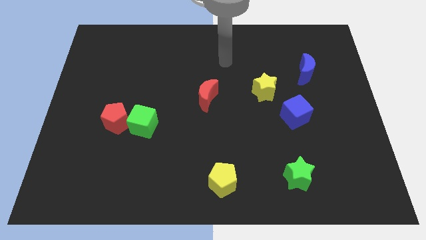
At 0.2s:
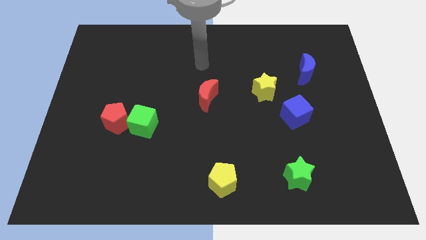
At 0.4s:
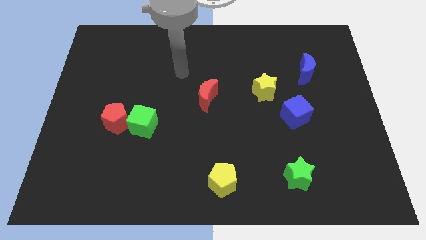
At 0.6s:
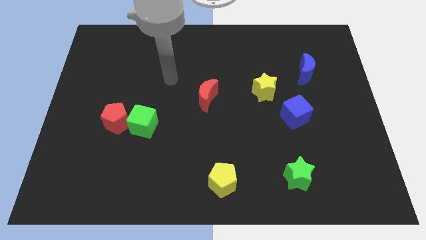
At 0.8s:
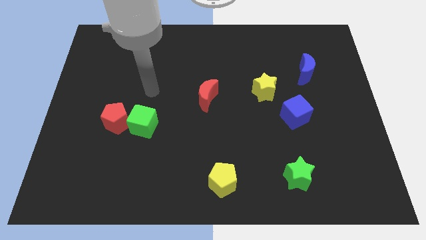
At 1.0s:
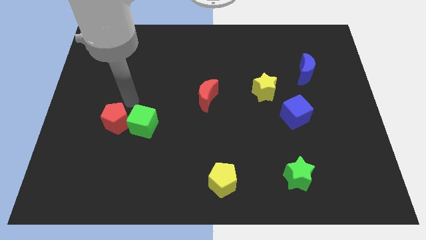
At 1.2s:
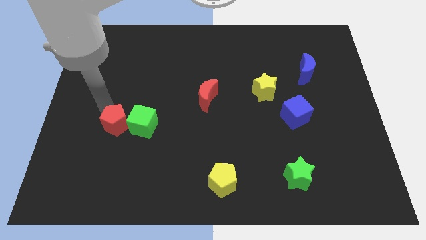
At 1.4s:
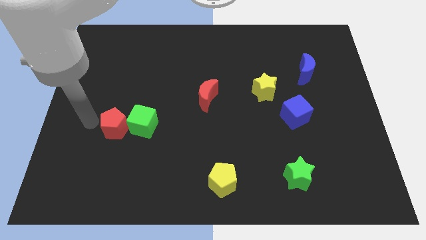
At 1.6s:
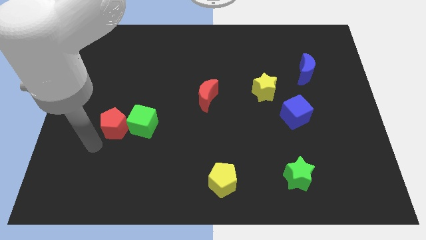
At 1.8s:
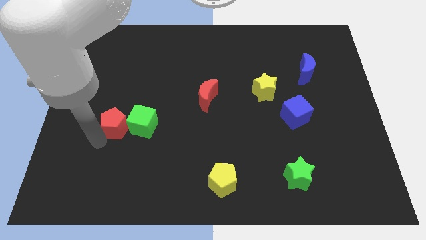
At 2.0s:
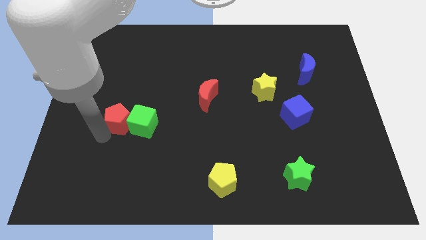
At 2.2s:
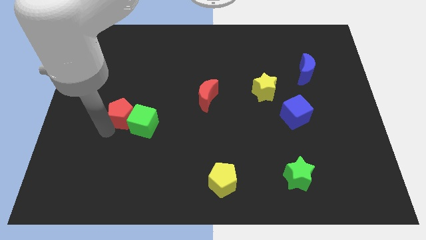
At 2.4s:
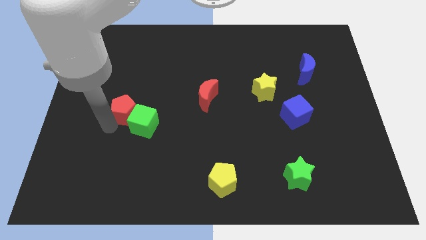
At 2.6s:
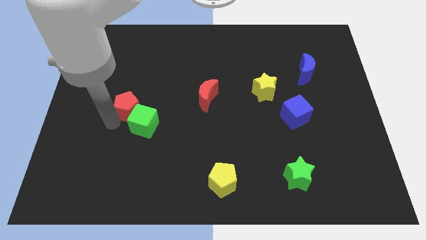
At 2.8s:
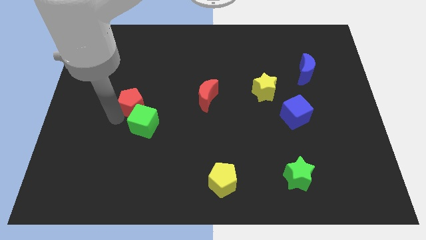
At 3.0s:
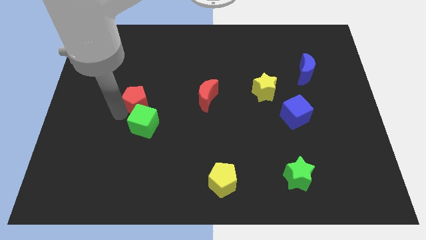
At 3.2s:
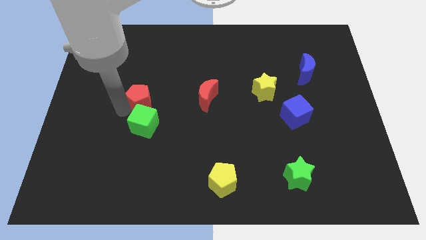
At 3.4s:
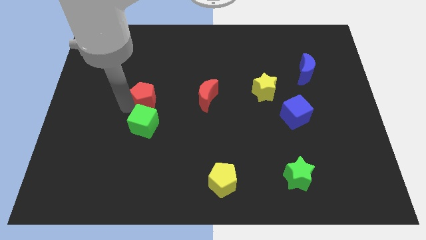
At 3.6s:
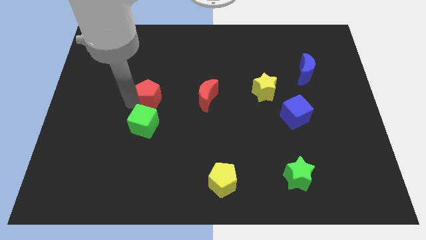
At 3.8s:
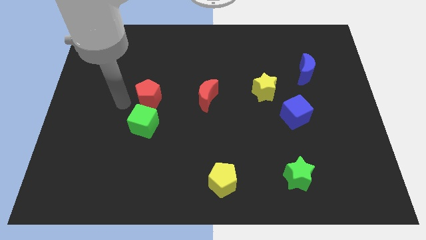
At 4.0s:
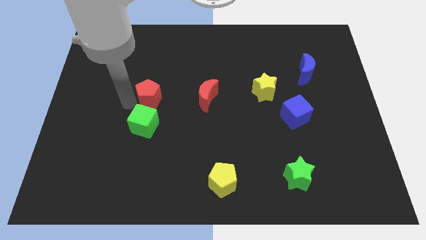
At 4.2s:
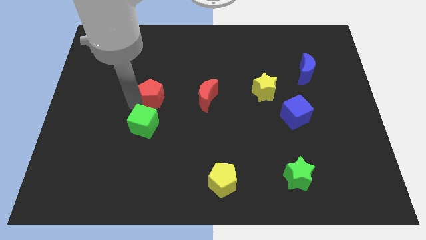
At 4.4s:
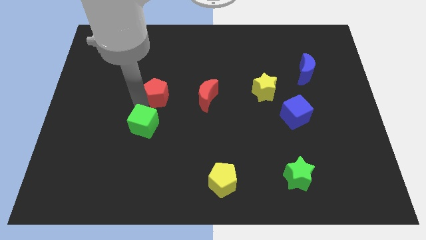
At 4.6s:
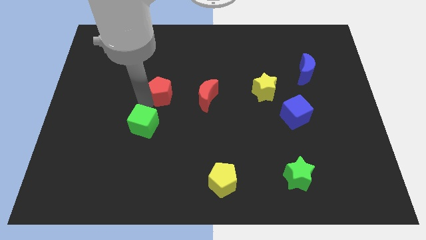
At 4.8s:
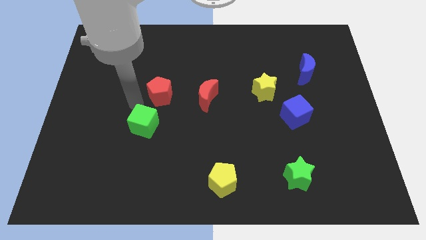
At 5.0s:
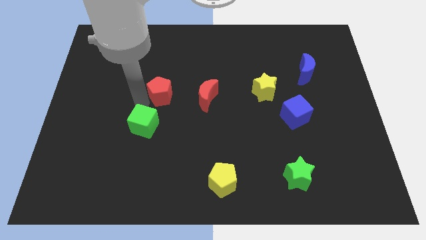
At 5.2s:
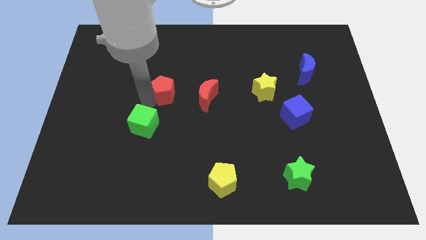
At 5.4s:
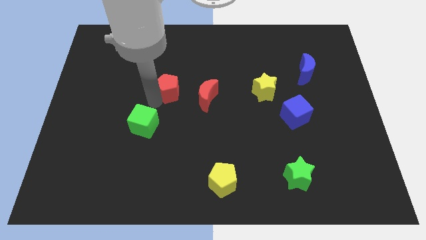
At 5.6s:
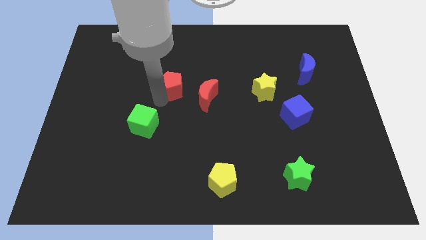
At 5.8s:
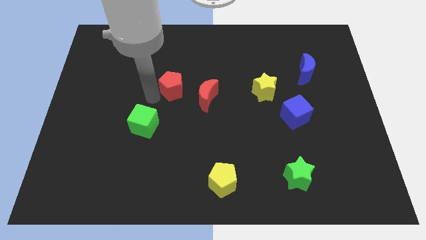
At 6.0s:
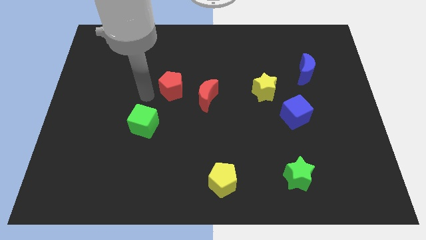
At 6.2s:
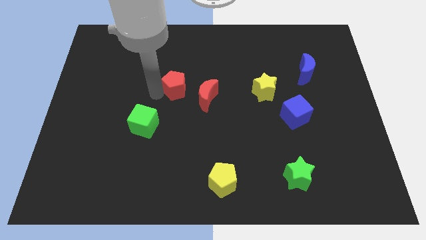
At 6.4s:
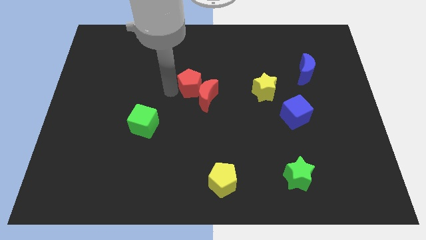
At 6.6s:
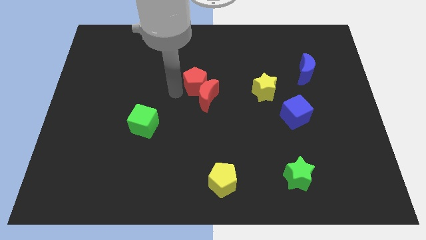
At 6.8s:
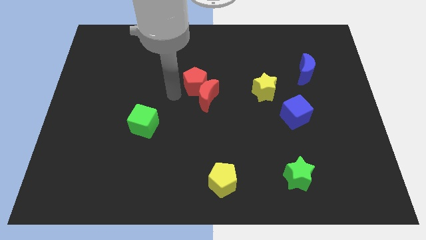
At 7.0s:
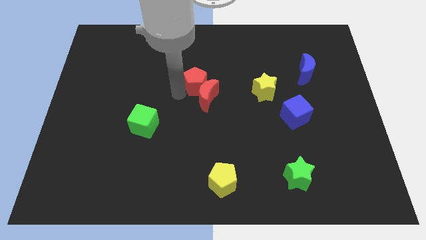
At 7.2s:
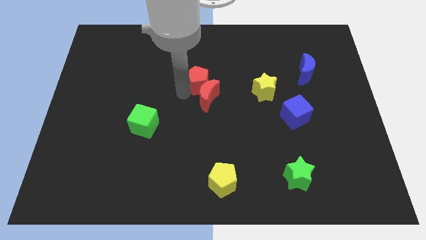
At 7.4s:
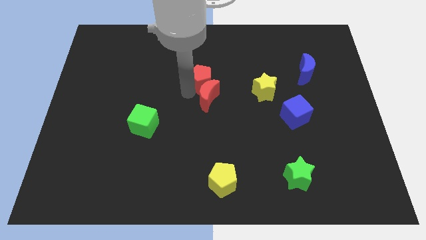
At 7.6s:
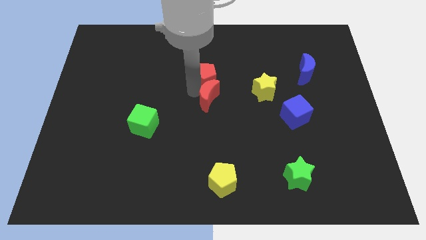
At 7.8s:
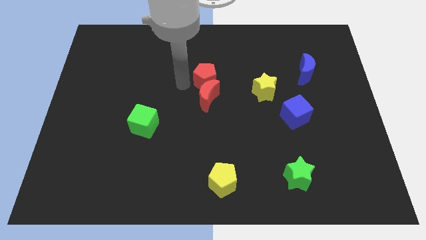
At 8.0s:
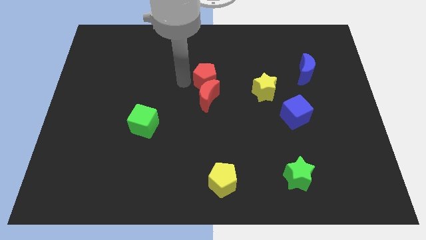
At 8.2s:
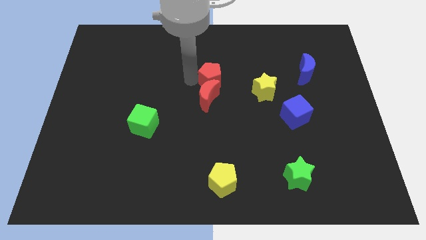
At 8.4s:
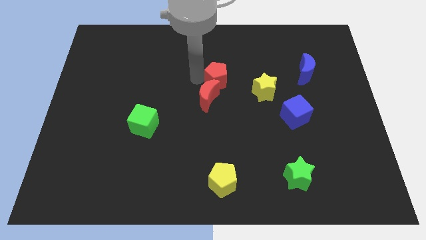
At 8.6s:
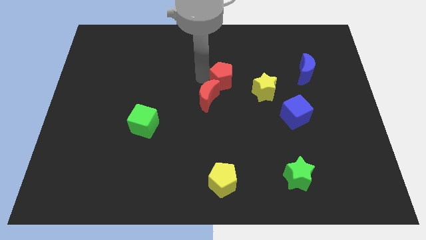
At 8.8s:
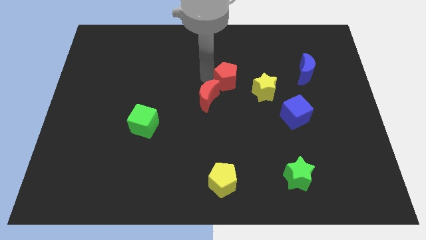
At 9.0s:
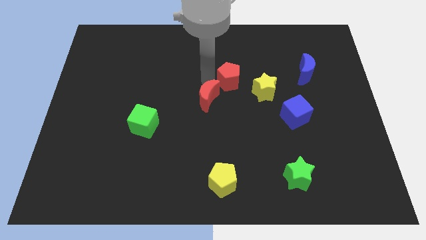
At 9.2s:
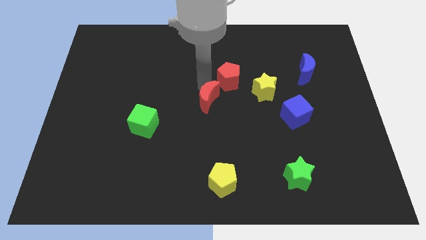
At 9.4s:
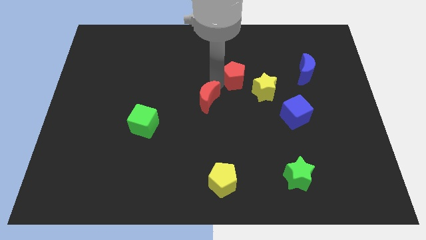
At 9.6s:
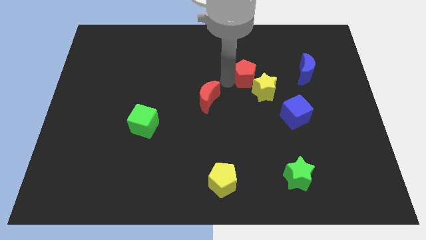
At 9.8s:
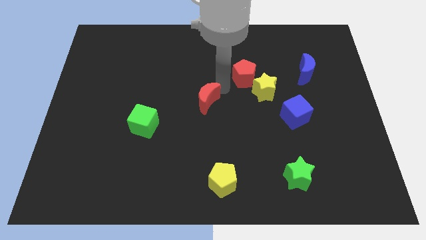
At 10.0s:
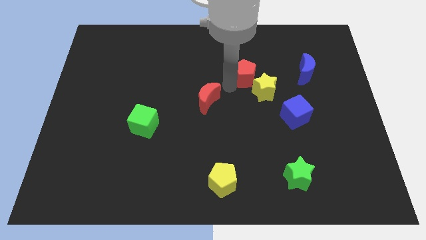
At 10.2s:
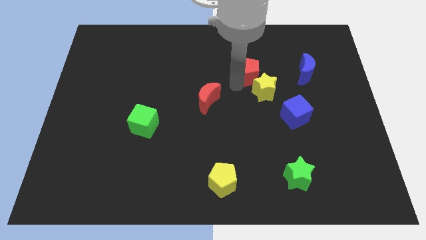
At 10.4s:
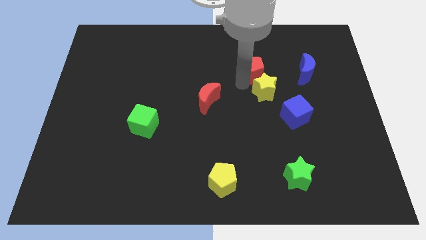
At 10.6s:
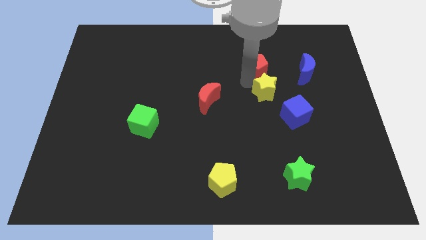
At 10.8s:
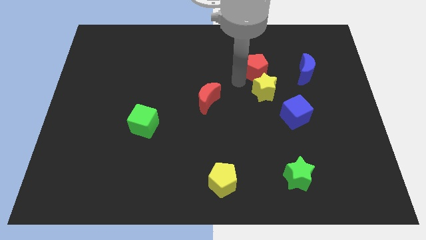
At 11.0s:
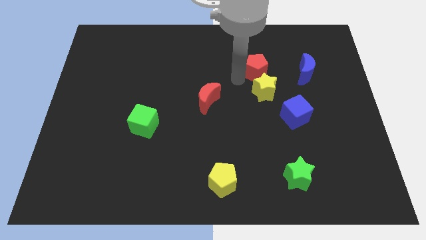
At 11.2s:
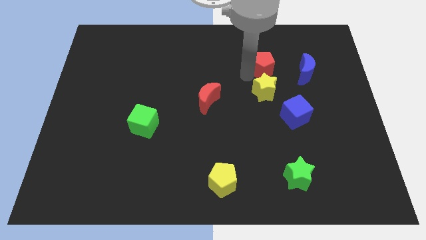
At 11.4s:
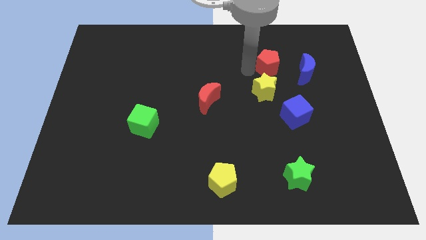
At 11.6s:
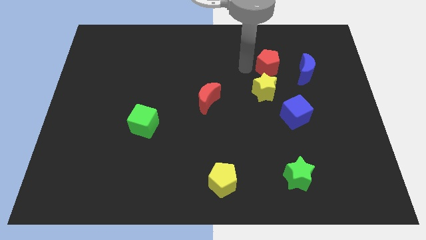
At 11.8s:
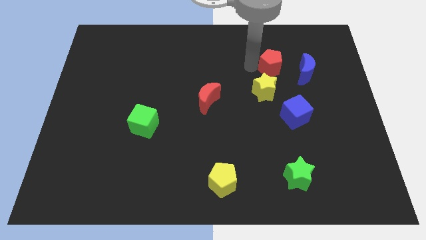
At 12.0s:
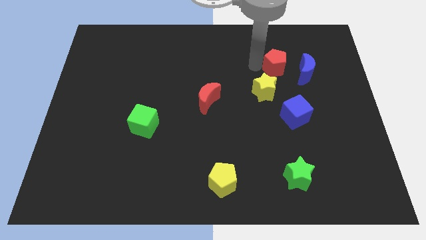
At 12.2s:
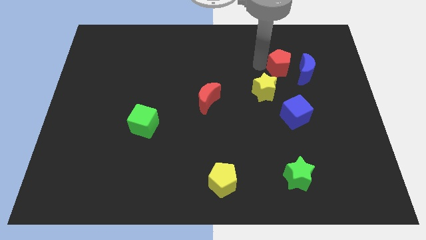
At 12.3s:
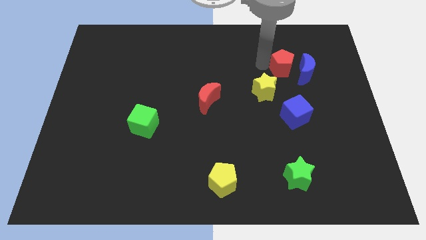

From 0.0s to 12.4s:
slide the red pentagon close to the blue moon

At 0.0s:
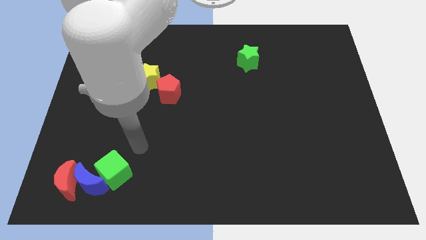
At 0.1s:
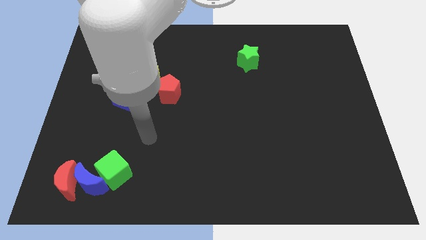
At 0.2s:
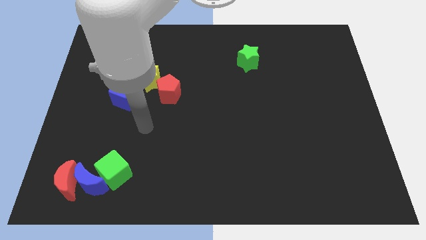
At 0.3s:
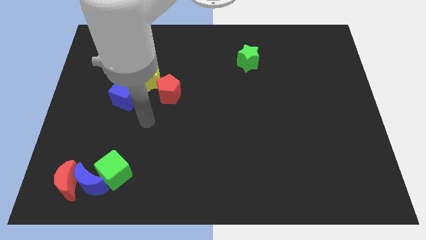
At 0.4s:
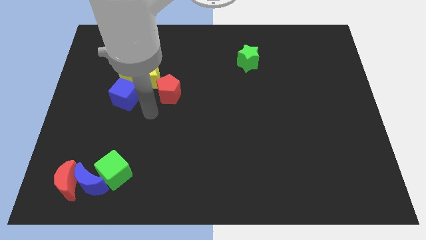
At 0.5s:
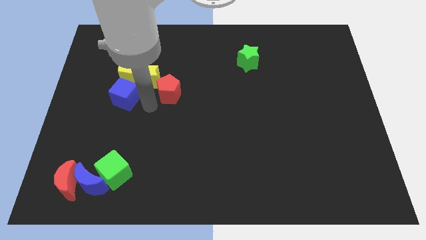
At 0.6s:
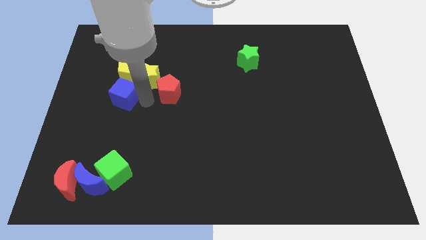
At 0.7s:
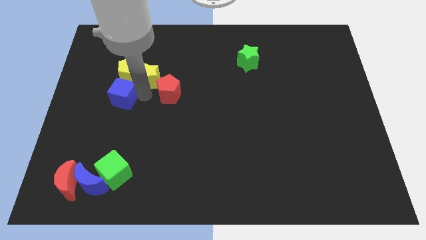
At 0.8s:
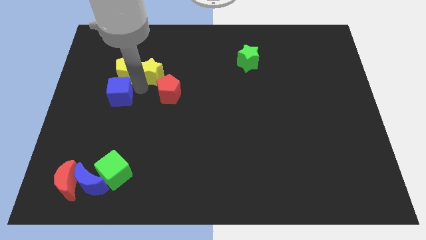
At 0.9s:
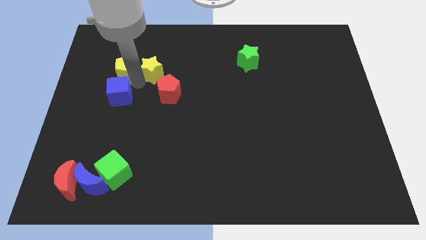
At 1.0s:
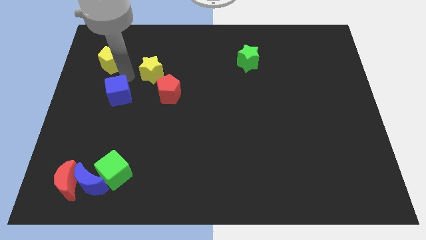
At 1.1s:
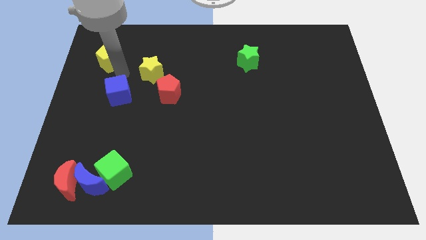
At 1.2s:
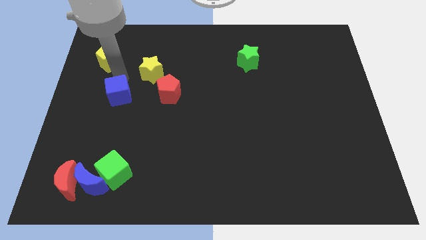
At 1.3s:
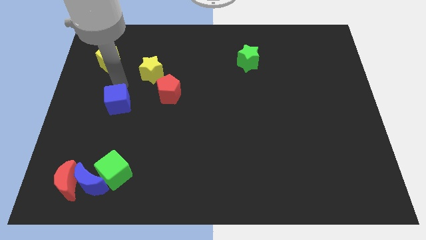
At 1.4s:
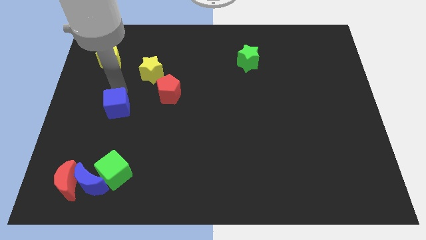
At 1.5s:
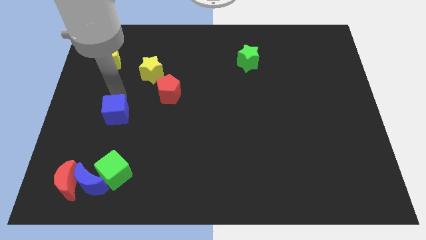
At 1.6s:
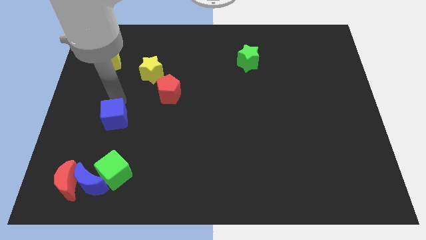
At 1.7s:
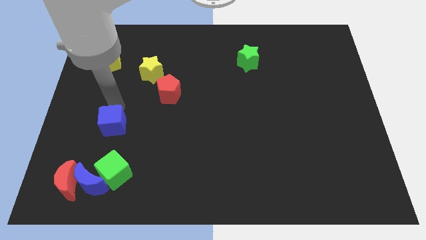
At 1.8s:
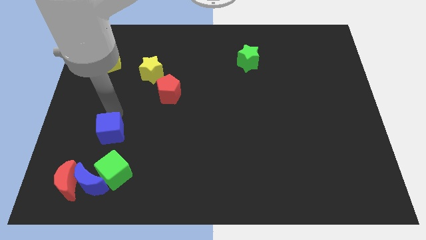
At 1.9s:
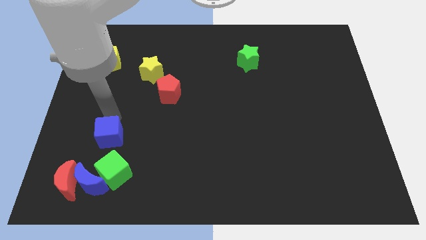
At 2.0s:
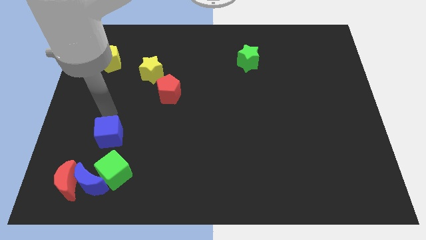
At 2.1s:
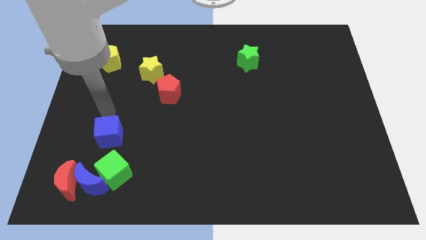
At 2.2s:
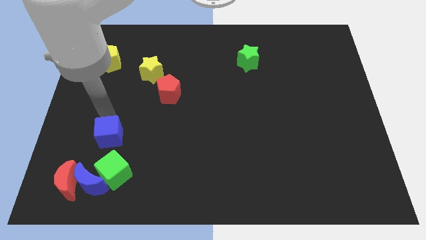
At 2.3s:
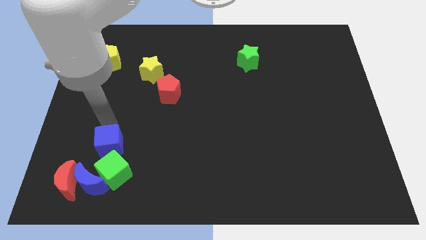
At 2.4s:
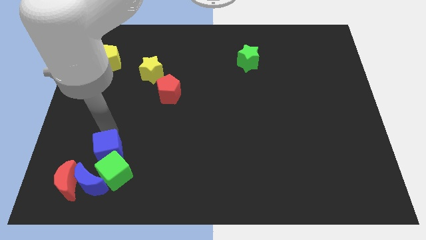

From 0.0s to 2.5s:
slide the blue cube towards the green cube
